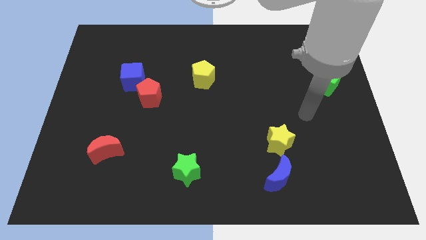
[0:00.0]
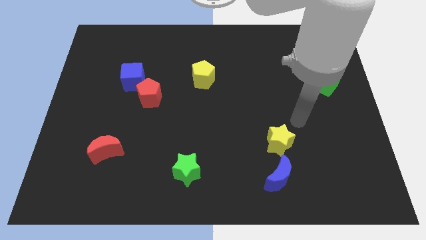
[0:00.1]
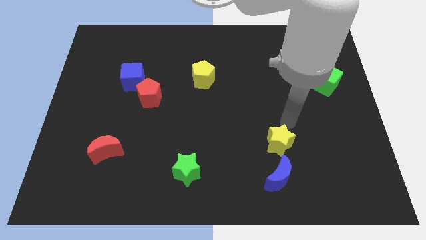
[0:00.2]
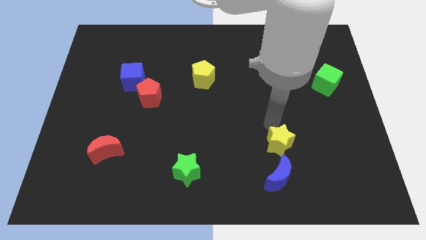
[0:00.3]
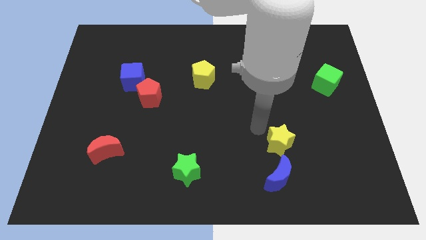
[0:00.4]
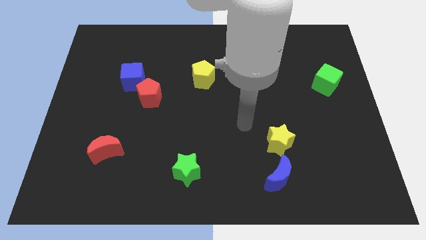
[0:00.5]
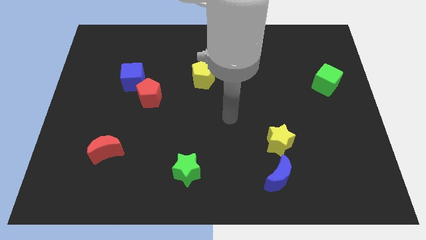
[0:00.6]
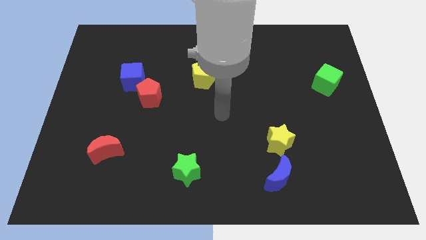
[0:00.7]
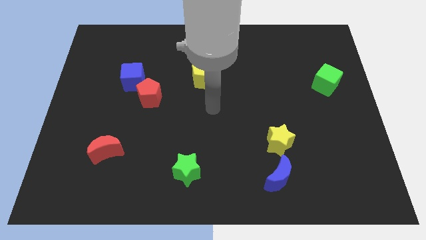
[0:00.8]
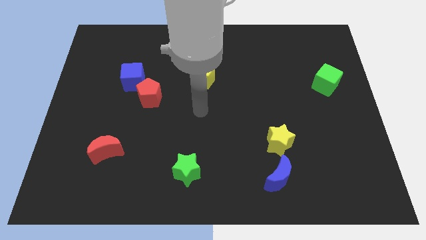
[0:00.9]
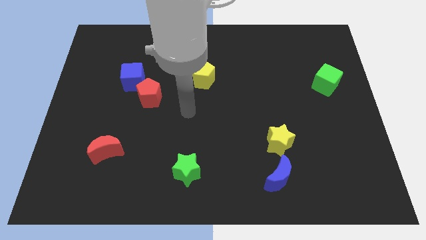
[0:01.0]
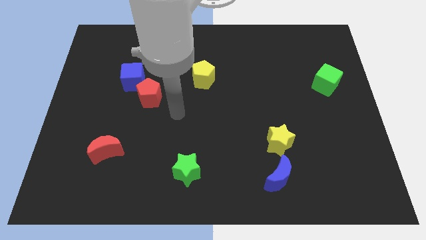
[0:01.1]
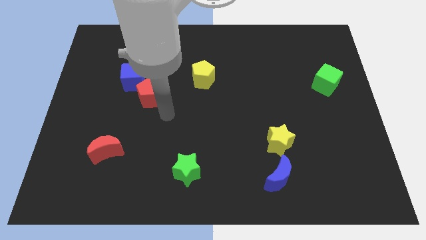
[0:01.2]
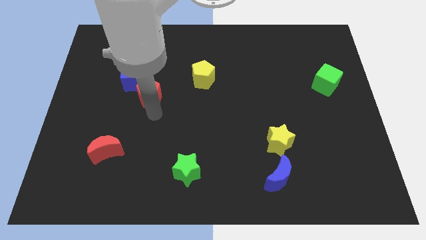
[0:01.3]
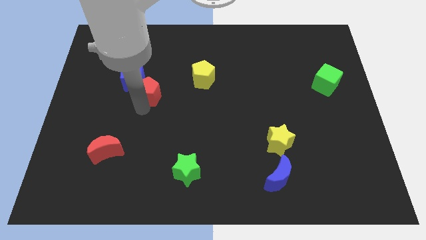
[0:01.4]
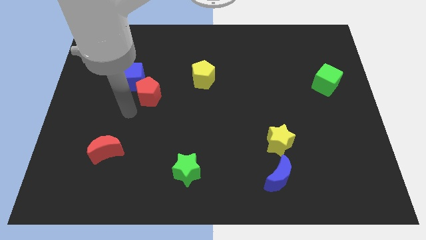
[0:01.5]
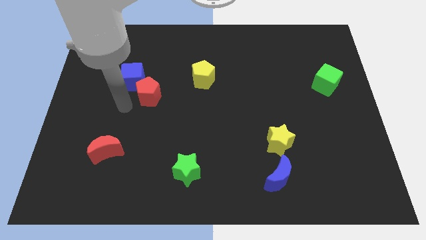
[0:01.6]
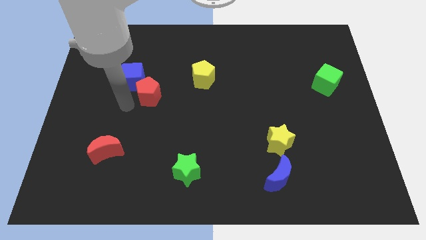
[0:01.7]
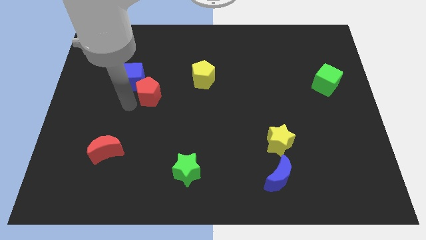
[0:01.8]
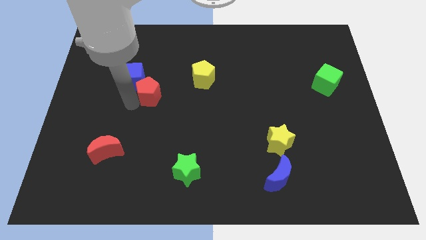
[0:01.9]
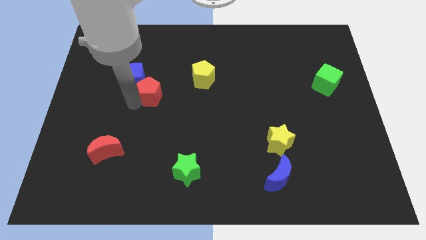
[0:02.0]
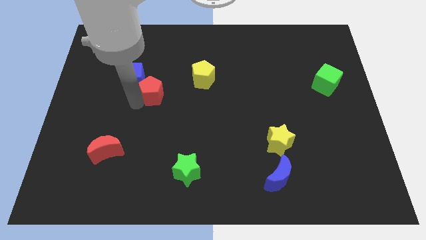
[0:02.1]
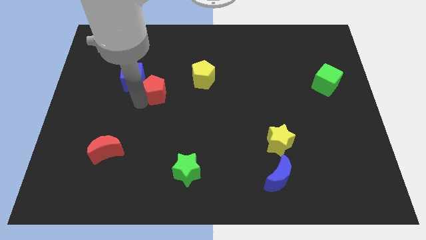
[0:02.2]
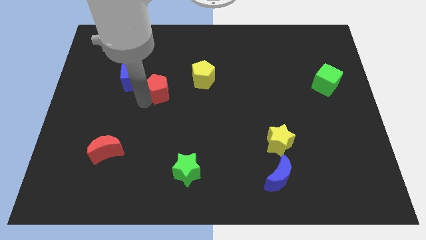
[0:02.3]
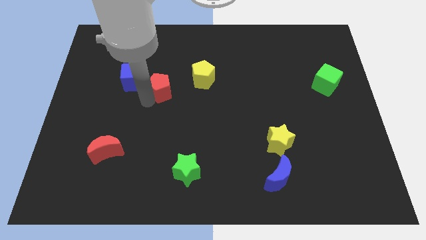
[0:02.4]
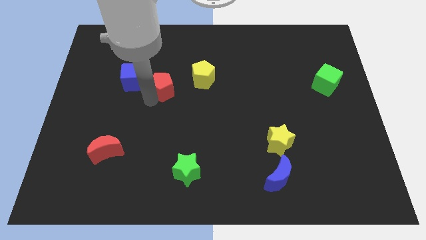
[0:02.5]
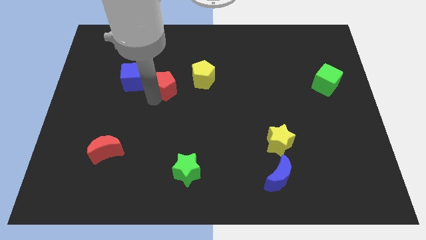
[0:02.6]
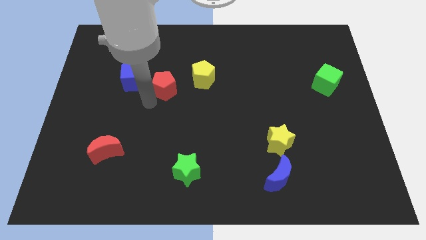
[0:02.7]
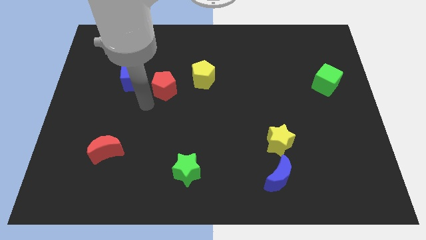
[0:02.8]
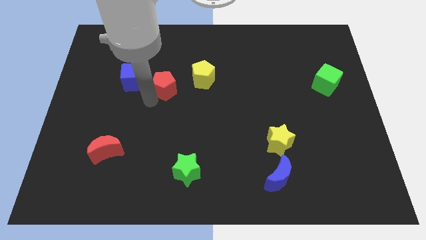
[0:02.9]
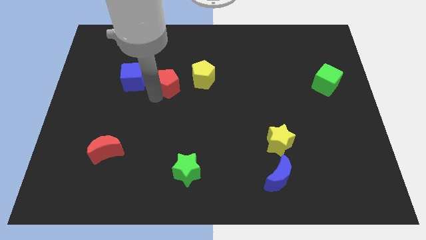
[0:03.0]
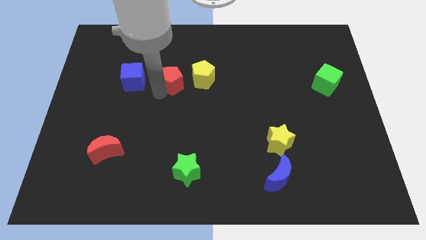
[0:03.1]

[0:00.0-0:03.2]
slightly move the red pentagon up and then right

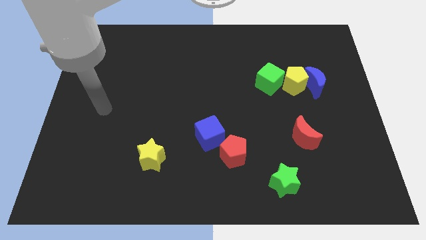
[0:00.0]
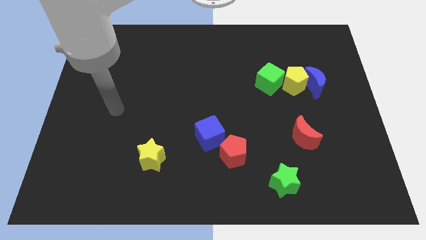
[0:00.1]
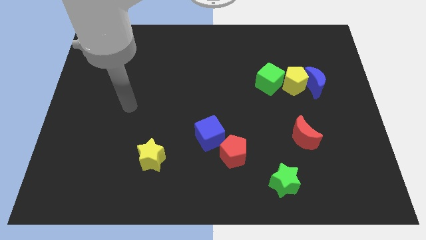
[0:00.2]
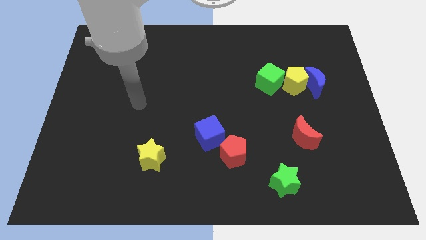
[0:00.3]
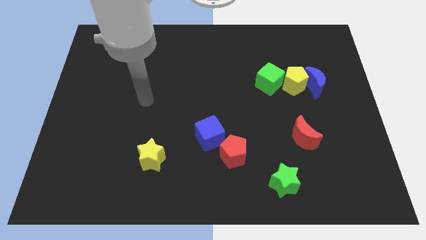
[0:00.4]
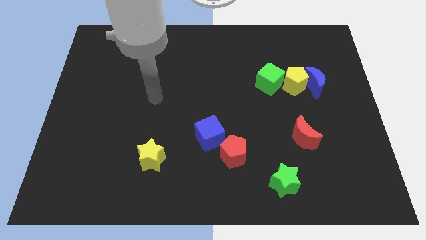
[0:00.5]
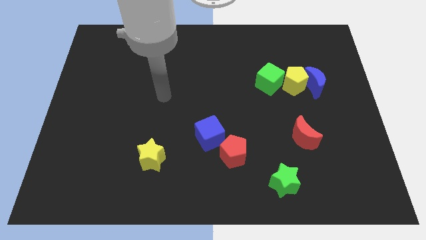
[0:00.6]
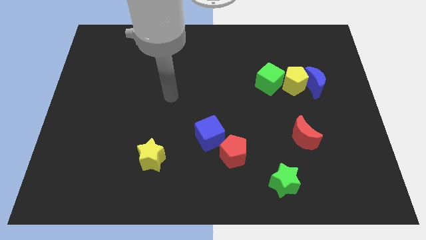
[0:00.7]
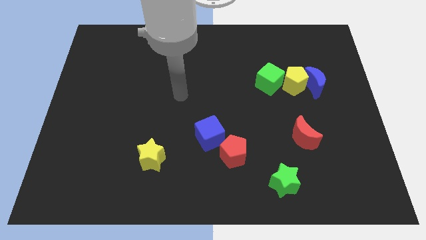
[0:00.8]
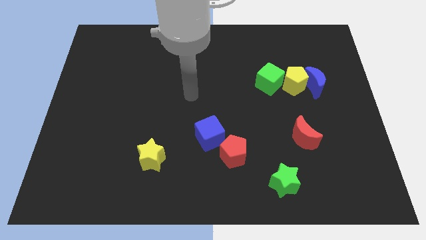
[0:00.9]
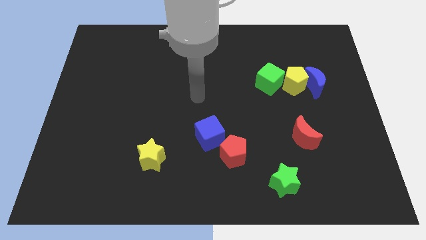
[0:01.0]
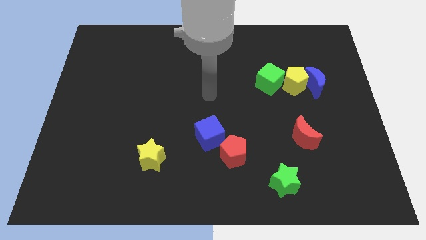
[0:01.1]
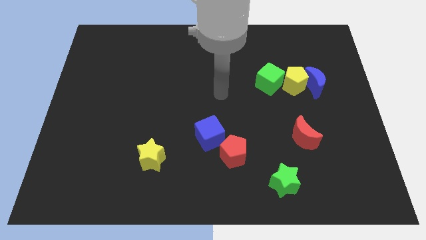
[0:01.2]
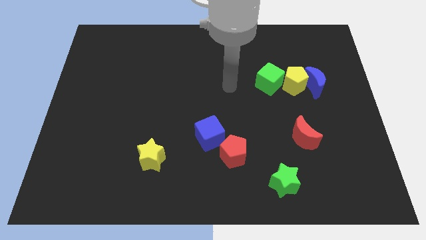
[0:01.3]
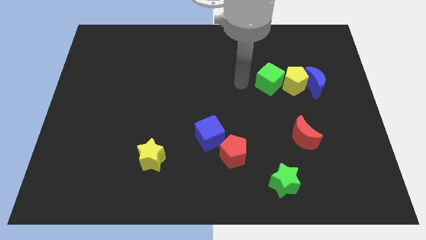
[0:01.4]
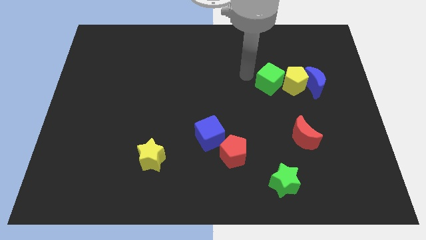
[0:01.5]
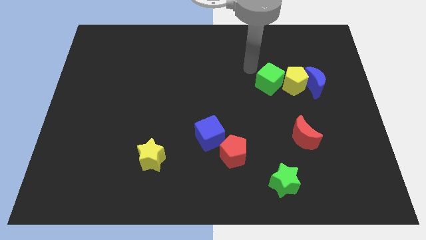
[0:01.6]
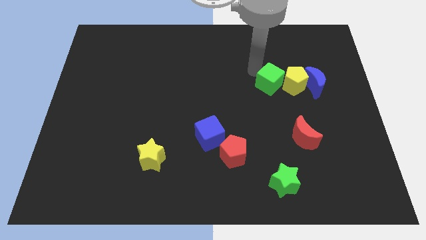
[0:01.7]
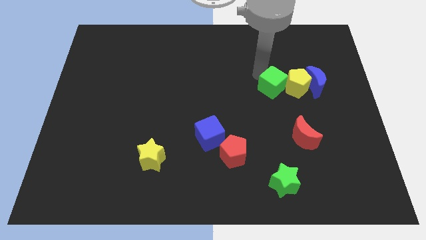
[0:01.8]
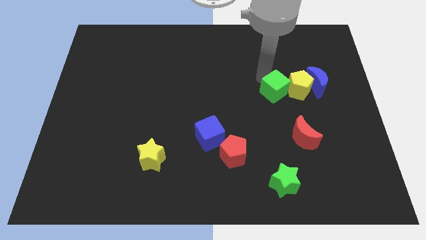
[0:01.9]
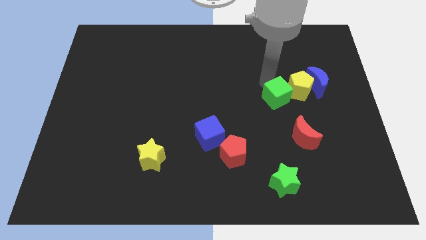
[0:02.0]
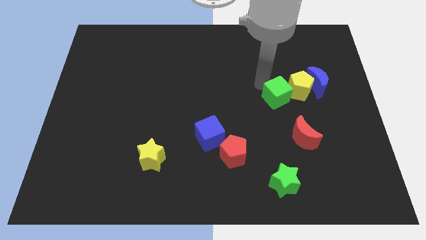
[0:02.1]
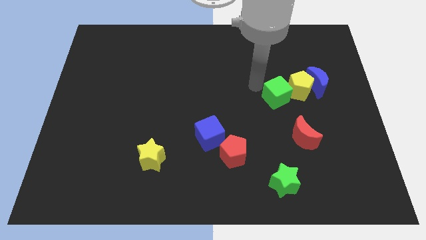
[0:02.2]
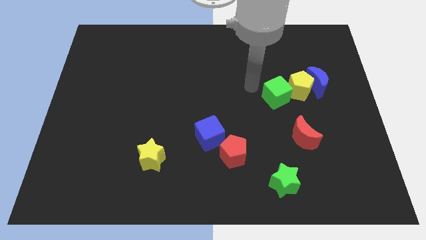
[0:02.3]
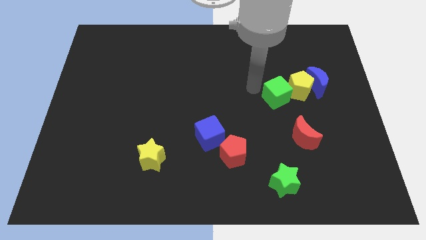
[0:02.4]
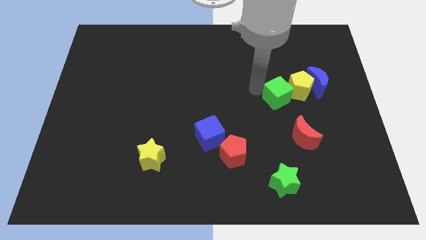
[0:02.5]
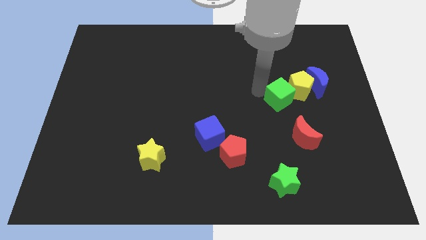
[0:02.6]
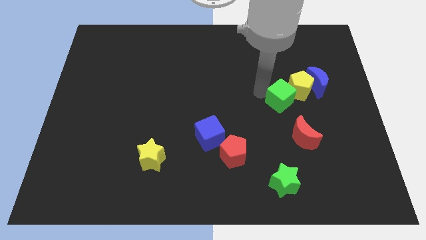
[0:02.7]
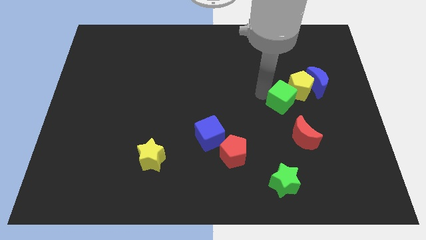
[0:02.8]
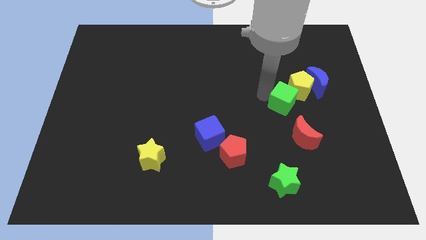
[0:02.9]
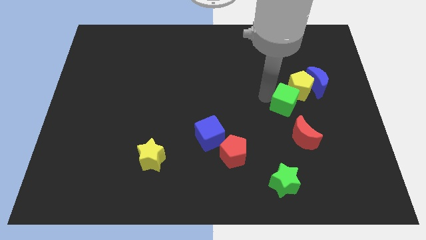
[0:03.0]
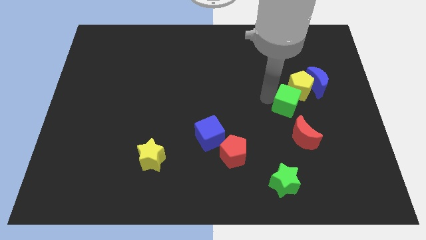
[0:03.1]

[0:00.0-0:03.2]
slightly push the green cube down and then right

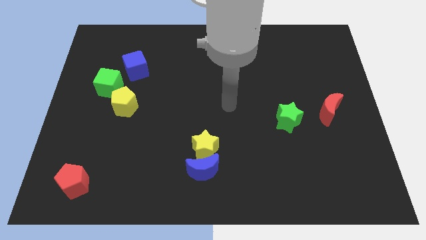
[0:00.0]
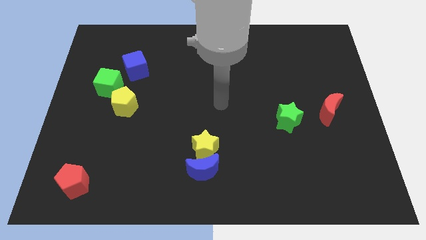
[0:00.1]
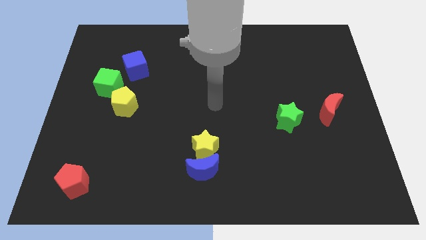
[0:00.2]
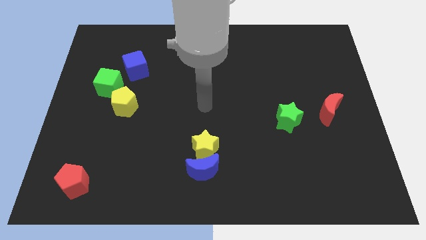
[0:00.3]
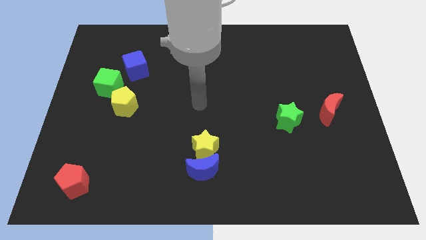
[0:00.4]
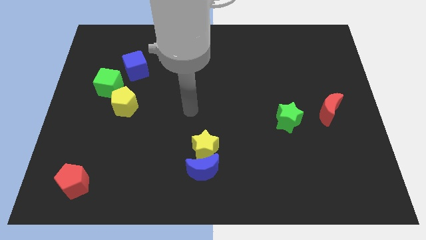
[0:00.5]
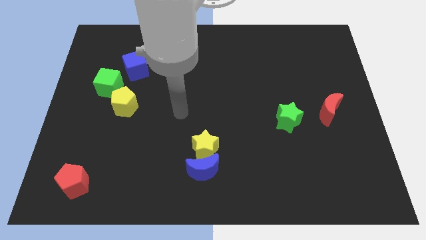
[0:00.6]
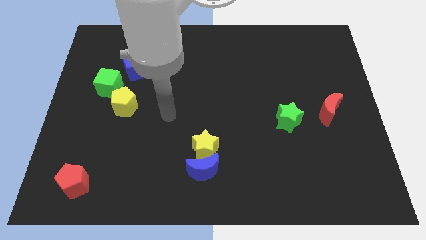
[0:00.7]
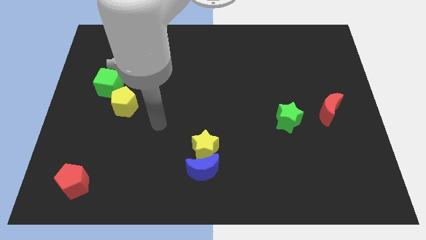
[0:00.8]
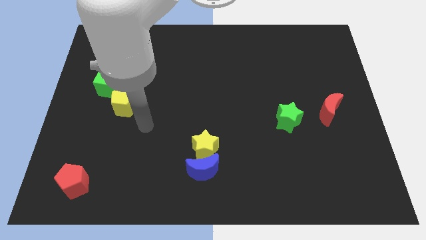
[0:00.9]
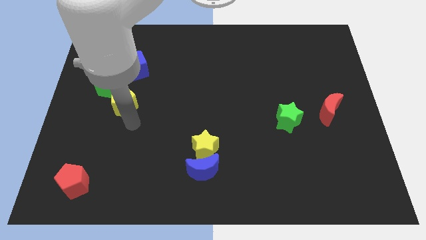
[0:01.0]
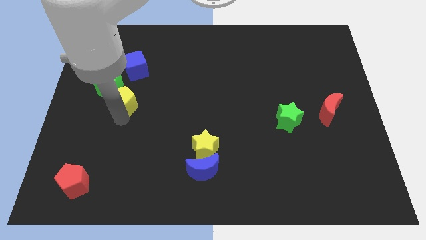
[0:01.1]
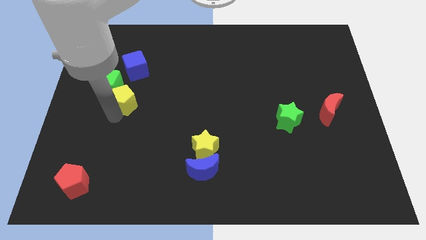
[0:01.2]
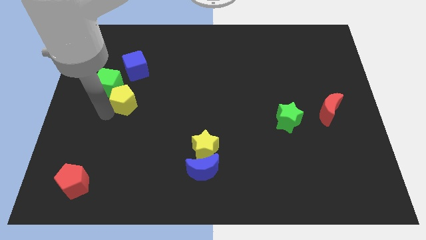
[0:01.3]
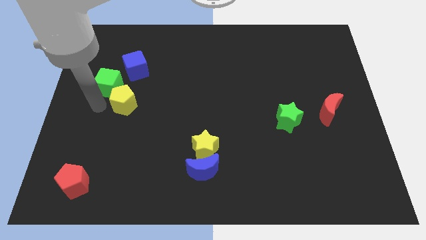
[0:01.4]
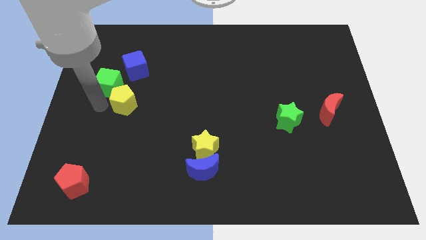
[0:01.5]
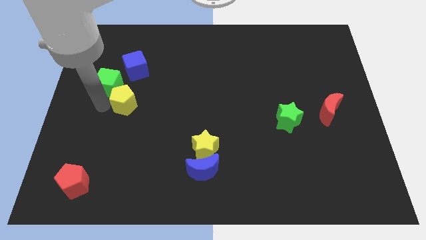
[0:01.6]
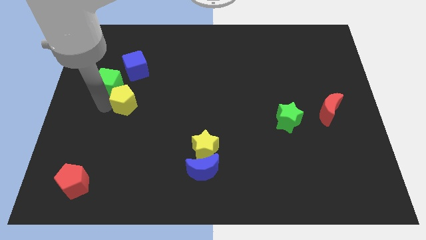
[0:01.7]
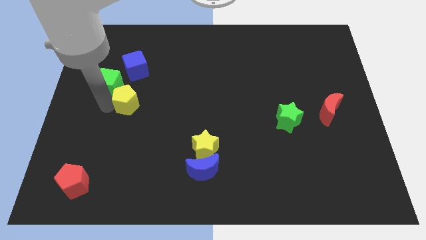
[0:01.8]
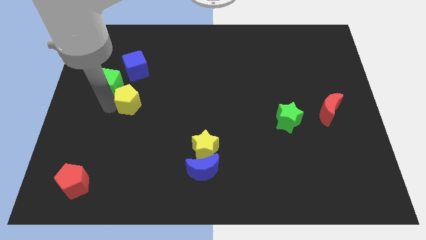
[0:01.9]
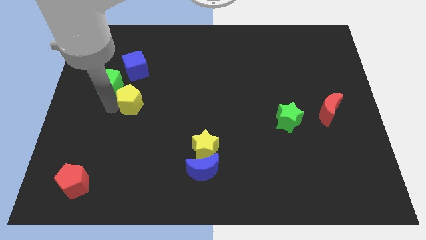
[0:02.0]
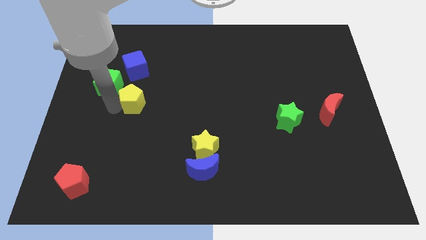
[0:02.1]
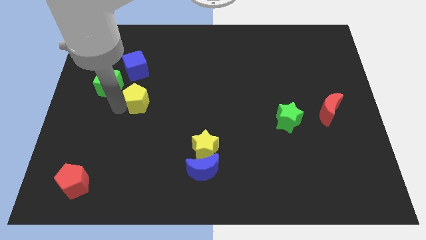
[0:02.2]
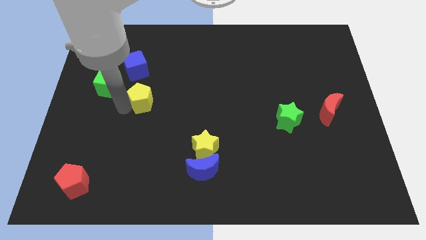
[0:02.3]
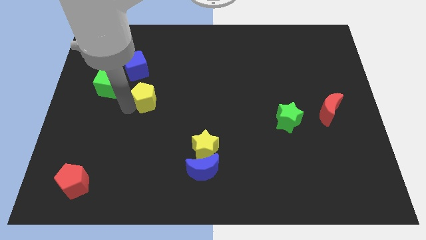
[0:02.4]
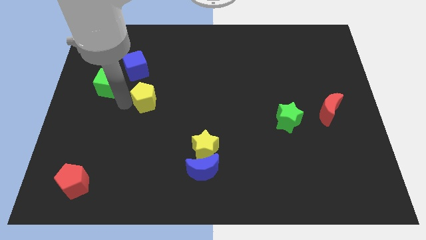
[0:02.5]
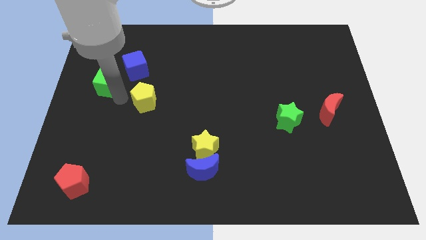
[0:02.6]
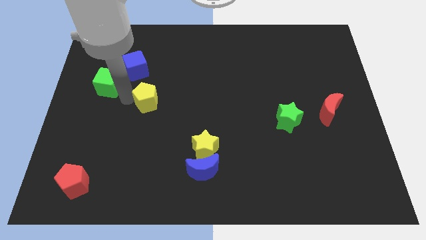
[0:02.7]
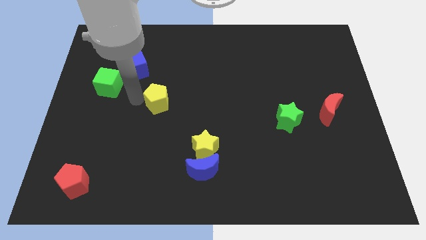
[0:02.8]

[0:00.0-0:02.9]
push the yellow pentagon a little bit right
